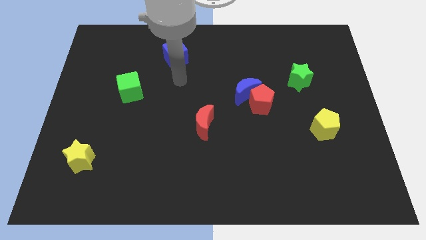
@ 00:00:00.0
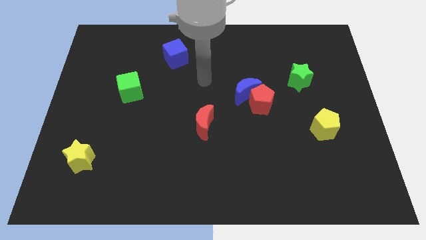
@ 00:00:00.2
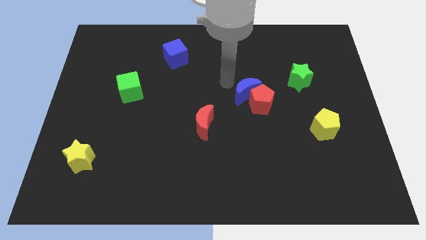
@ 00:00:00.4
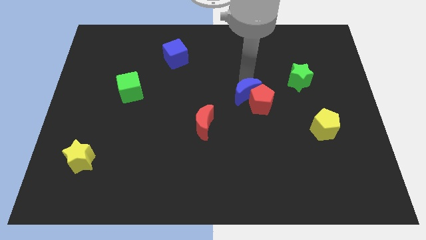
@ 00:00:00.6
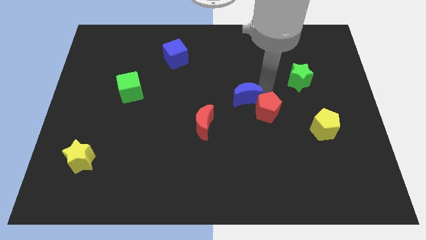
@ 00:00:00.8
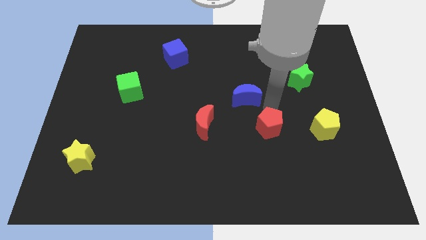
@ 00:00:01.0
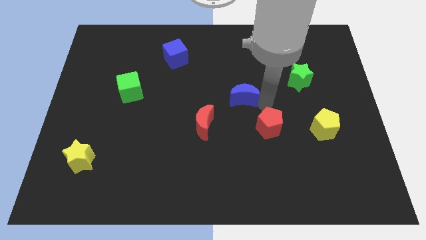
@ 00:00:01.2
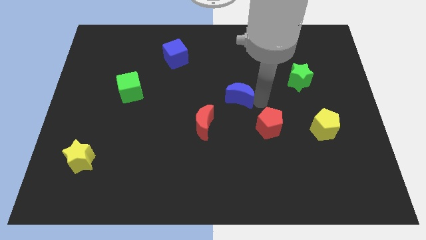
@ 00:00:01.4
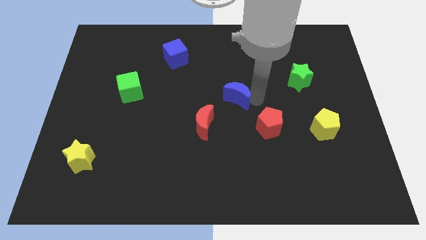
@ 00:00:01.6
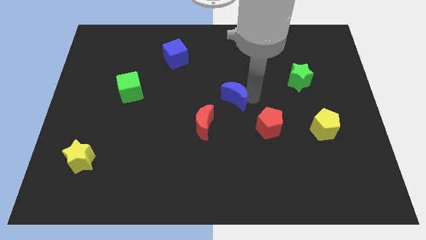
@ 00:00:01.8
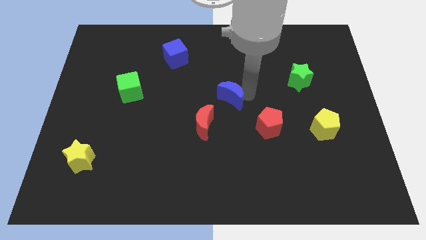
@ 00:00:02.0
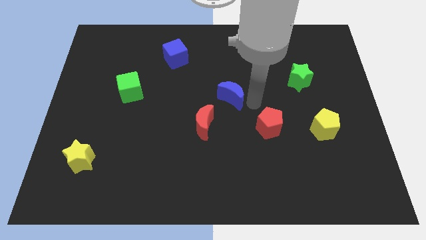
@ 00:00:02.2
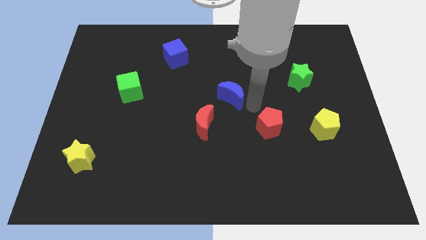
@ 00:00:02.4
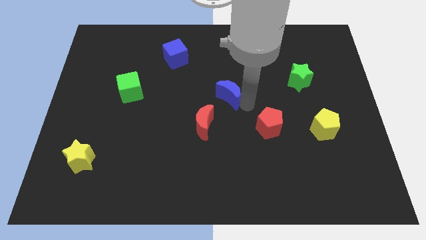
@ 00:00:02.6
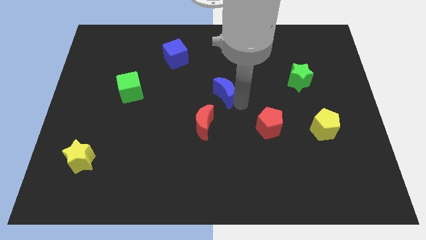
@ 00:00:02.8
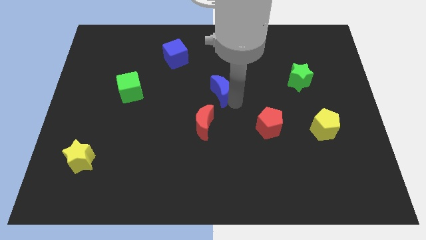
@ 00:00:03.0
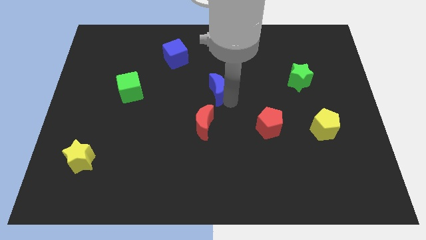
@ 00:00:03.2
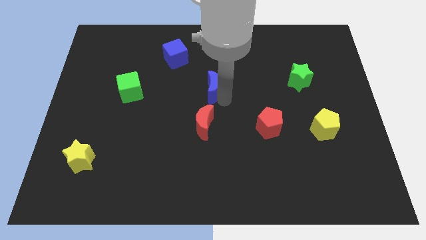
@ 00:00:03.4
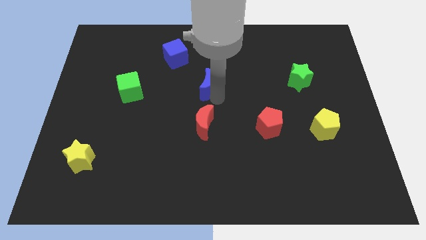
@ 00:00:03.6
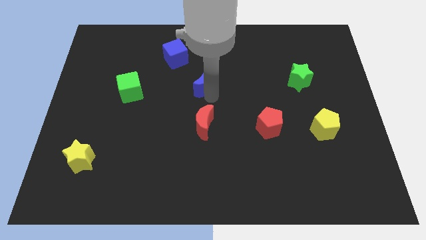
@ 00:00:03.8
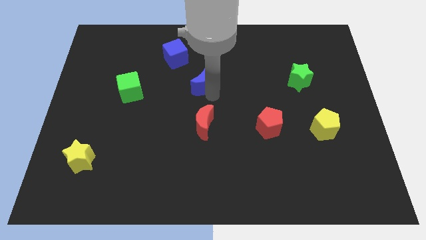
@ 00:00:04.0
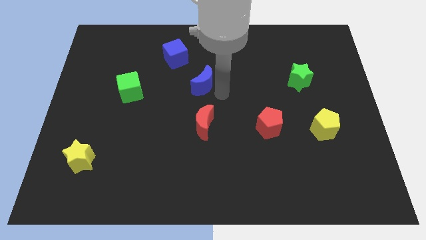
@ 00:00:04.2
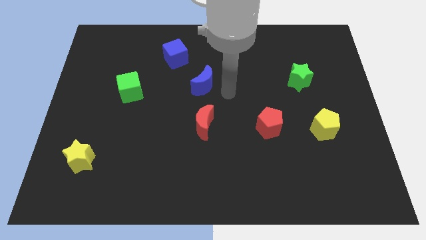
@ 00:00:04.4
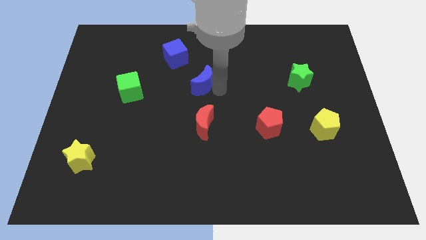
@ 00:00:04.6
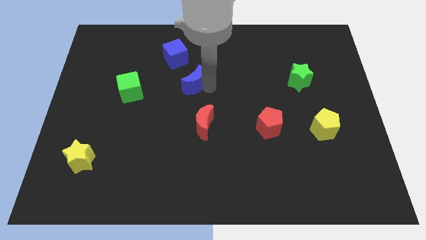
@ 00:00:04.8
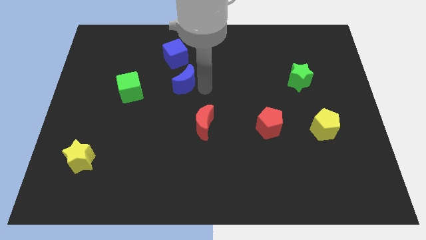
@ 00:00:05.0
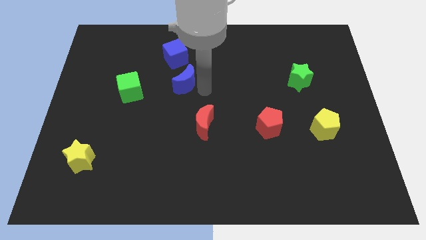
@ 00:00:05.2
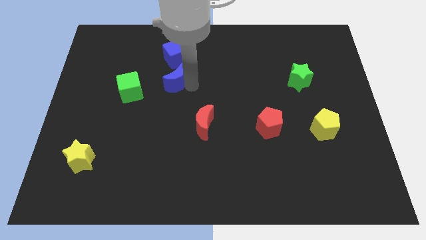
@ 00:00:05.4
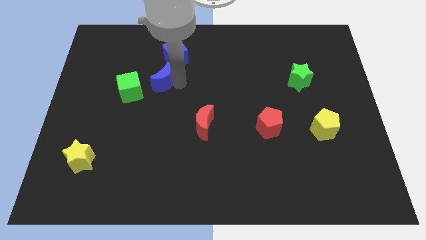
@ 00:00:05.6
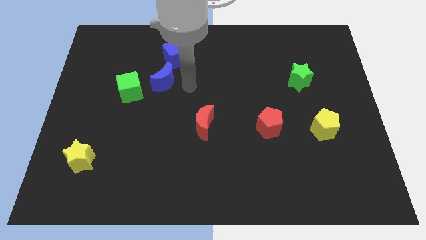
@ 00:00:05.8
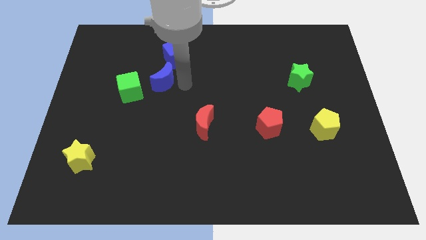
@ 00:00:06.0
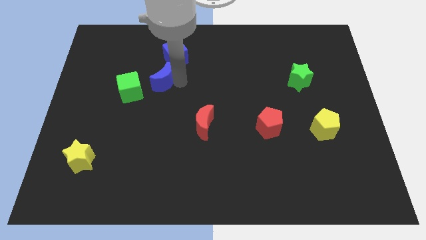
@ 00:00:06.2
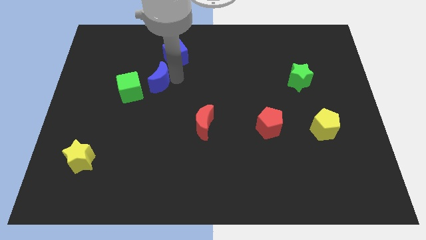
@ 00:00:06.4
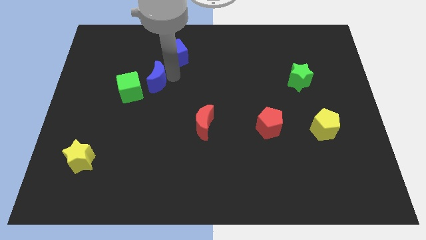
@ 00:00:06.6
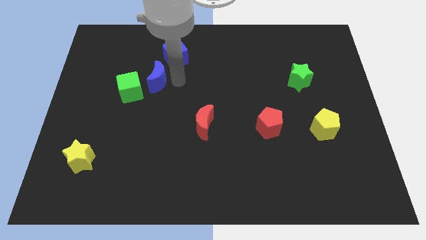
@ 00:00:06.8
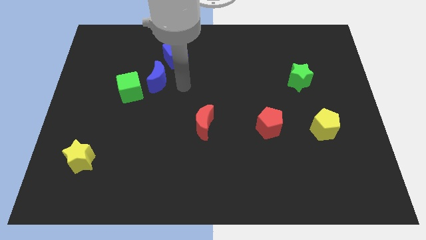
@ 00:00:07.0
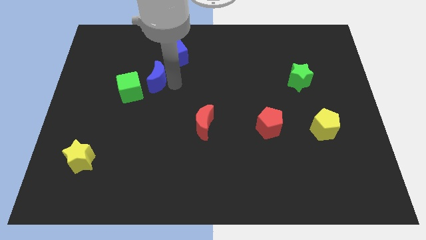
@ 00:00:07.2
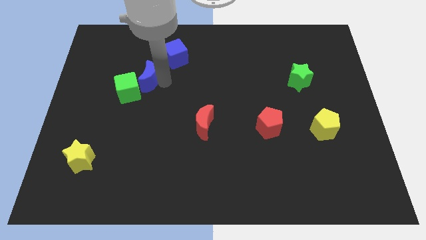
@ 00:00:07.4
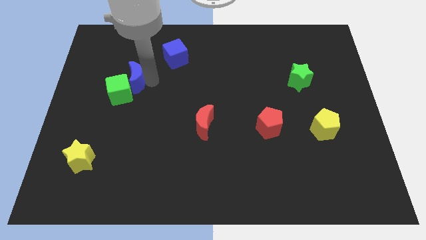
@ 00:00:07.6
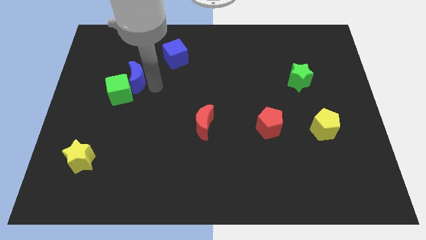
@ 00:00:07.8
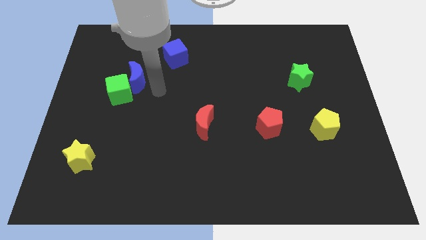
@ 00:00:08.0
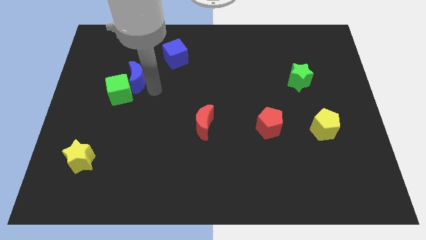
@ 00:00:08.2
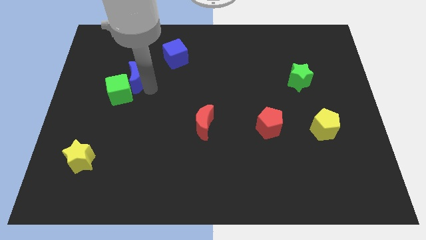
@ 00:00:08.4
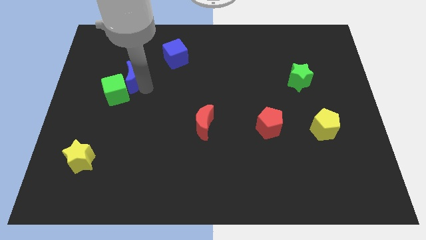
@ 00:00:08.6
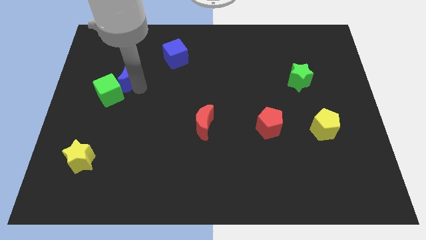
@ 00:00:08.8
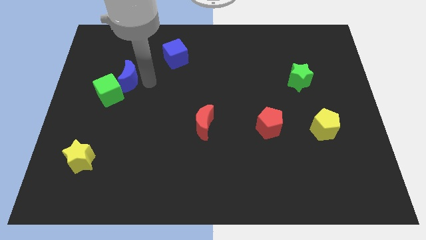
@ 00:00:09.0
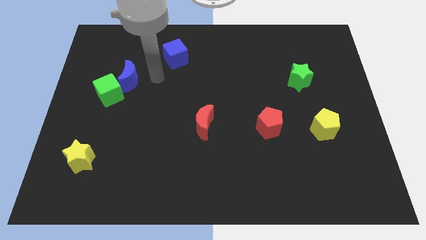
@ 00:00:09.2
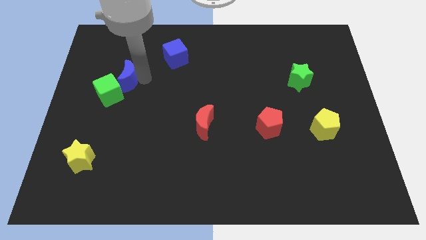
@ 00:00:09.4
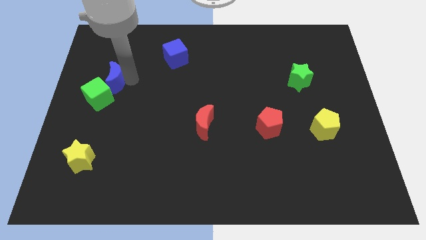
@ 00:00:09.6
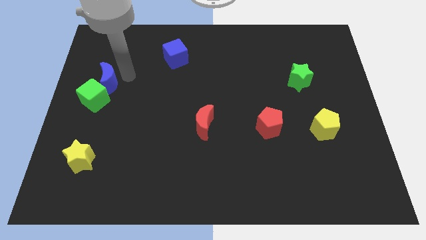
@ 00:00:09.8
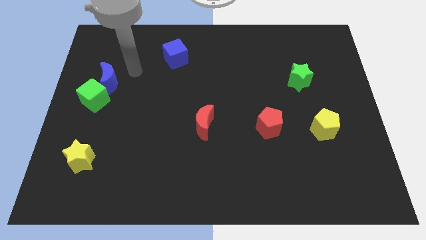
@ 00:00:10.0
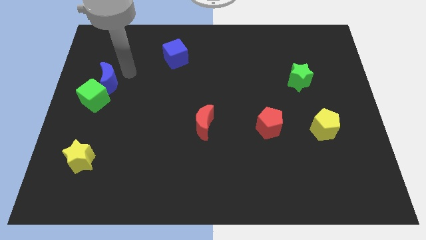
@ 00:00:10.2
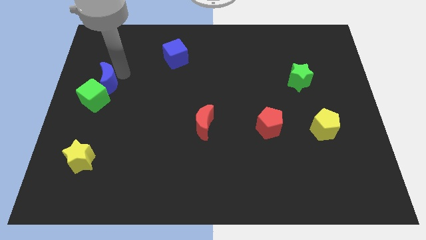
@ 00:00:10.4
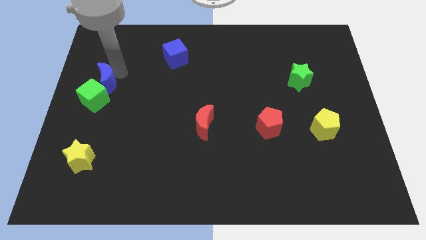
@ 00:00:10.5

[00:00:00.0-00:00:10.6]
move the blue moon to the left side

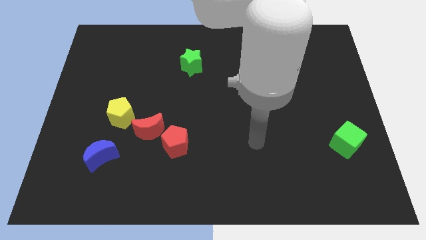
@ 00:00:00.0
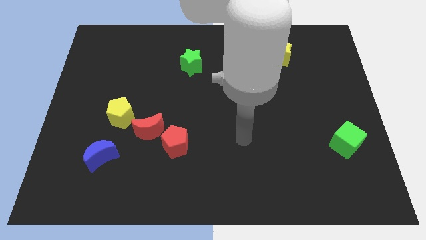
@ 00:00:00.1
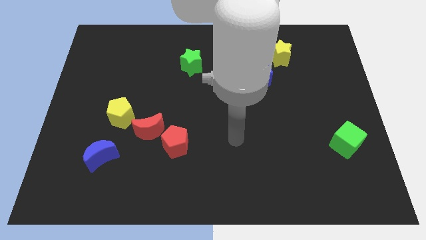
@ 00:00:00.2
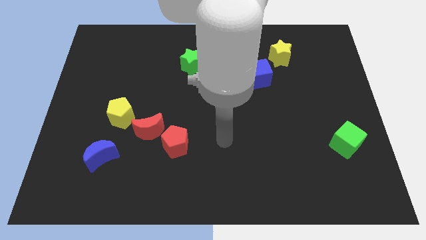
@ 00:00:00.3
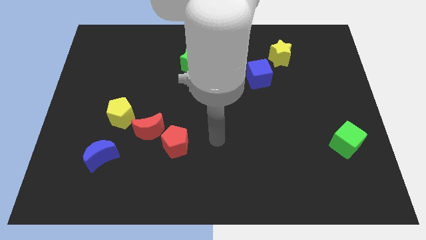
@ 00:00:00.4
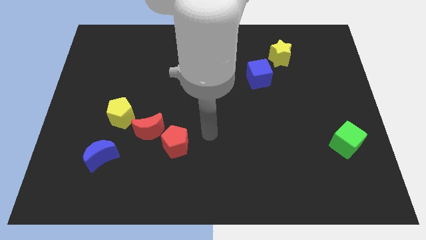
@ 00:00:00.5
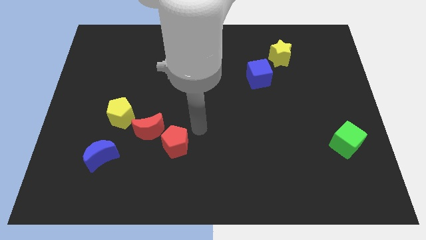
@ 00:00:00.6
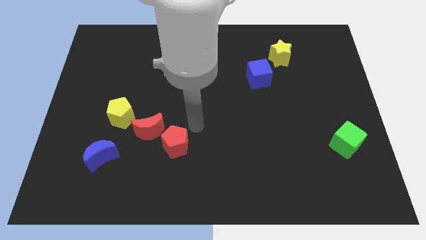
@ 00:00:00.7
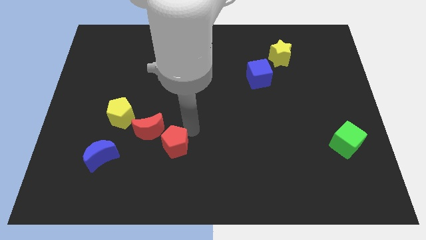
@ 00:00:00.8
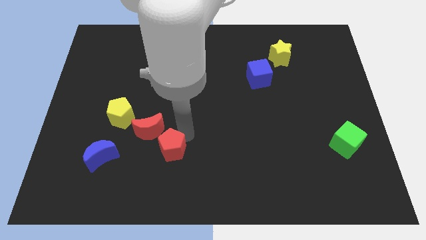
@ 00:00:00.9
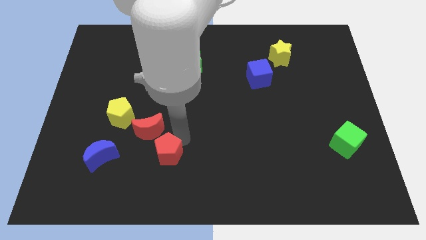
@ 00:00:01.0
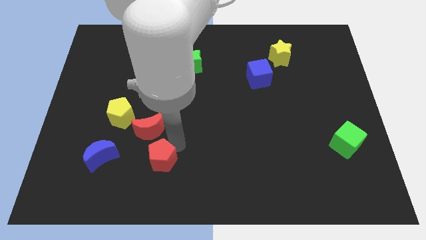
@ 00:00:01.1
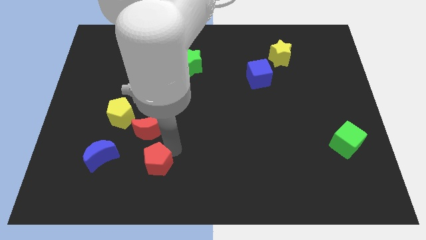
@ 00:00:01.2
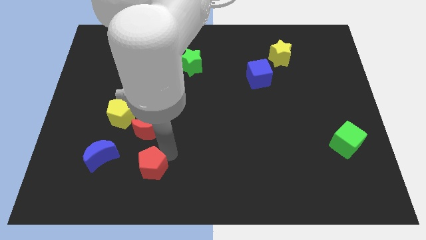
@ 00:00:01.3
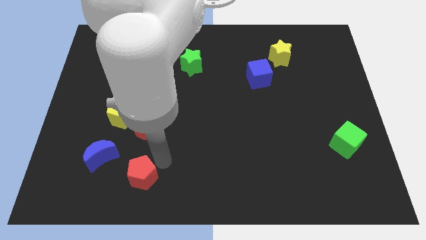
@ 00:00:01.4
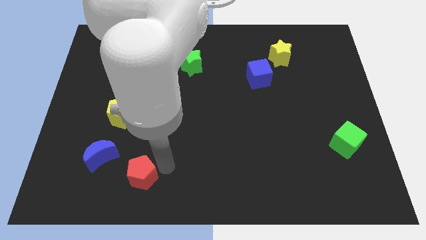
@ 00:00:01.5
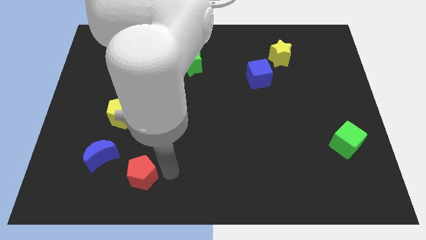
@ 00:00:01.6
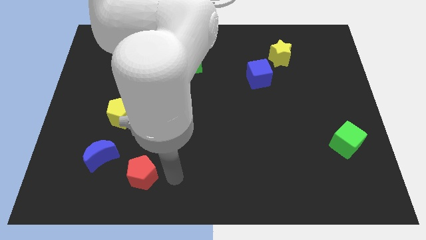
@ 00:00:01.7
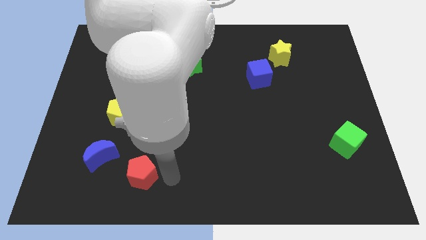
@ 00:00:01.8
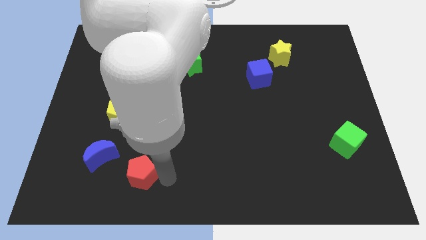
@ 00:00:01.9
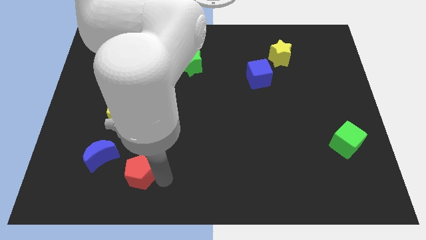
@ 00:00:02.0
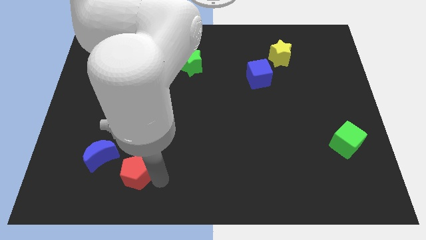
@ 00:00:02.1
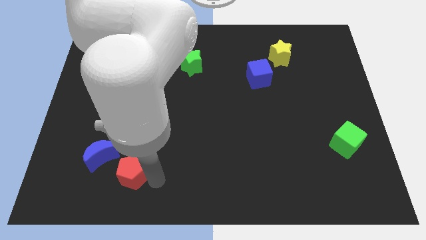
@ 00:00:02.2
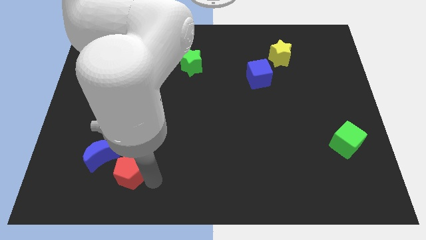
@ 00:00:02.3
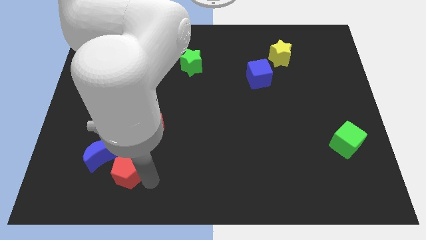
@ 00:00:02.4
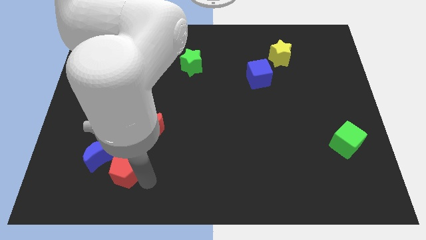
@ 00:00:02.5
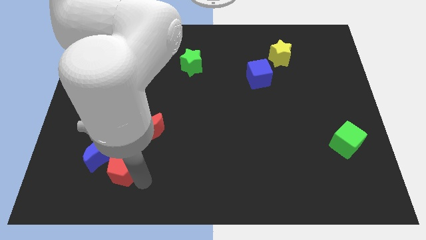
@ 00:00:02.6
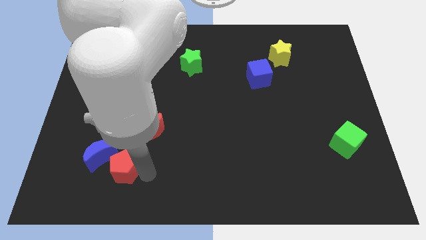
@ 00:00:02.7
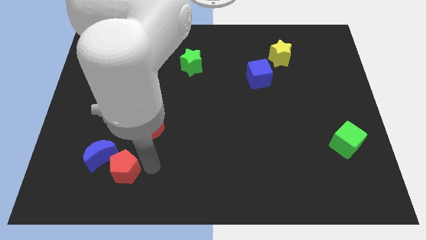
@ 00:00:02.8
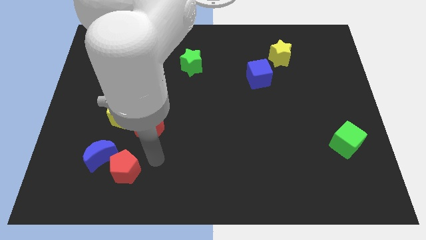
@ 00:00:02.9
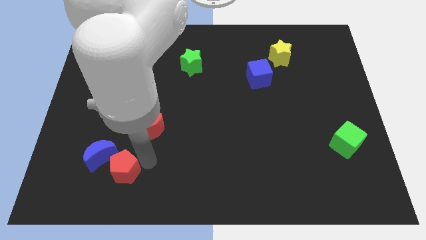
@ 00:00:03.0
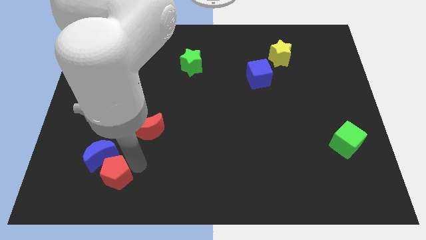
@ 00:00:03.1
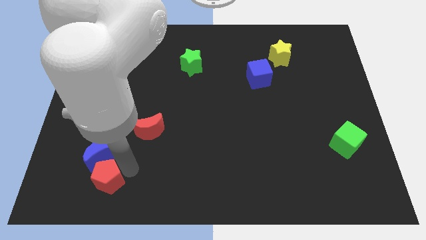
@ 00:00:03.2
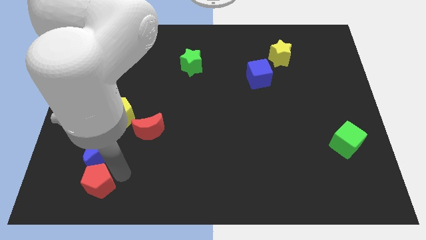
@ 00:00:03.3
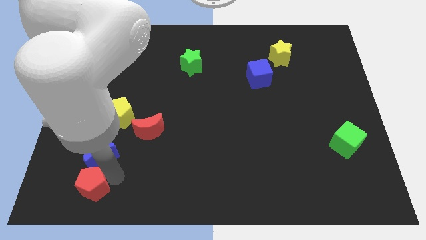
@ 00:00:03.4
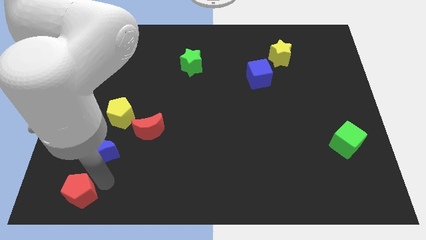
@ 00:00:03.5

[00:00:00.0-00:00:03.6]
push the red pentagon to the bottom left of the board
